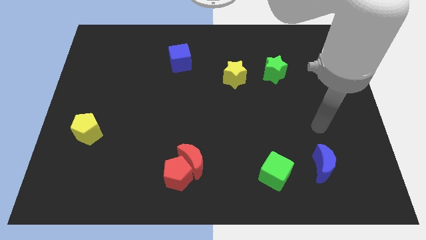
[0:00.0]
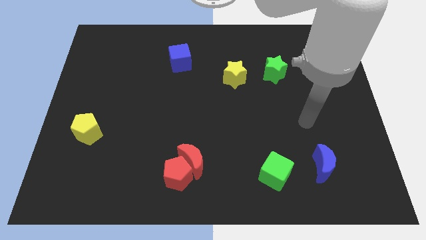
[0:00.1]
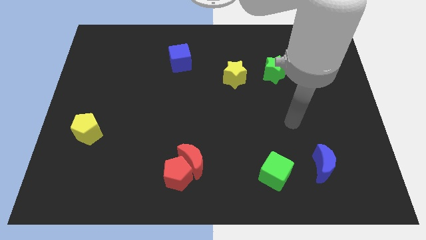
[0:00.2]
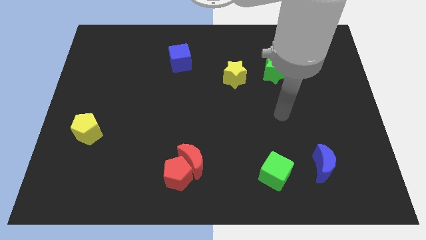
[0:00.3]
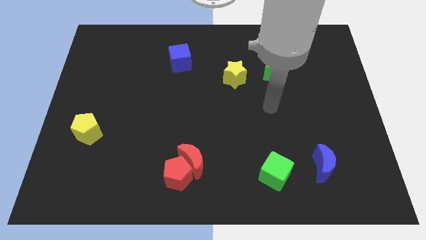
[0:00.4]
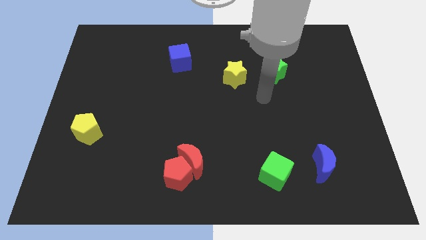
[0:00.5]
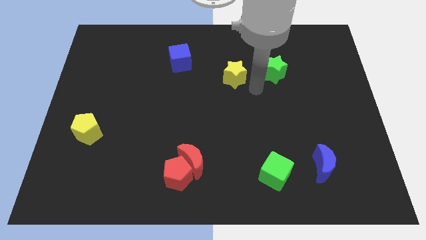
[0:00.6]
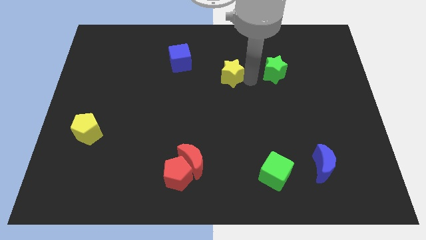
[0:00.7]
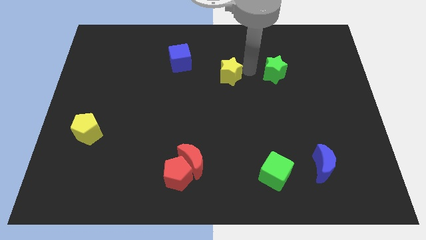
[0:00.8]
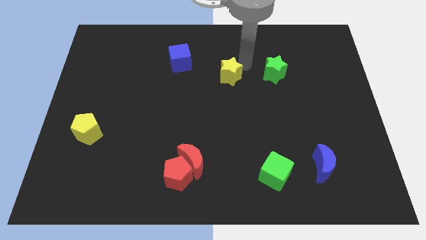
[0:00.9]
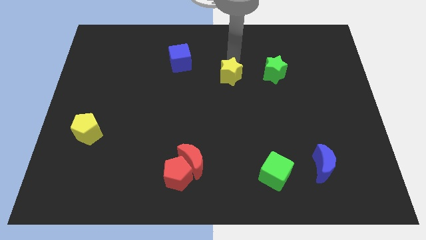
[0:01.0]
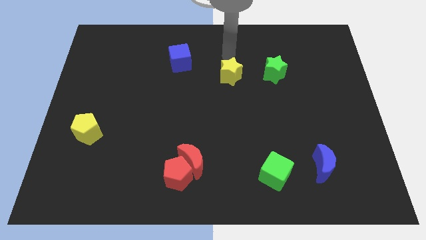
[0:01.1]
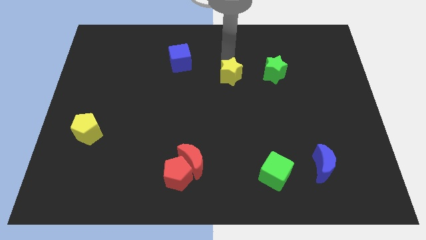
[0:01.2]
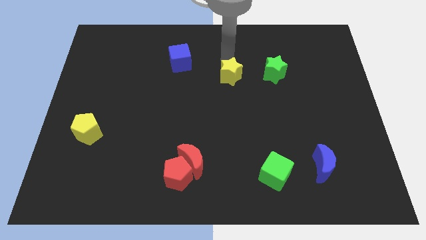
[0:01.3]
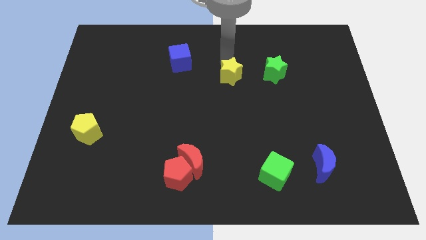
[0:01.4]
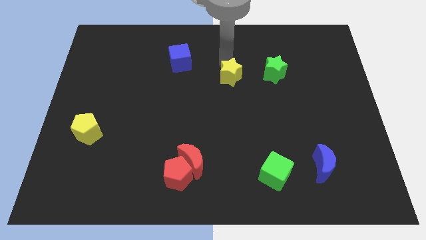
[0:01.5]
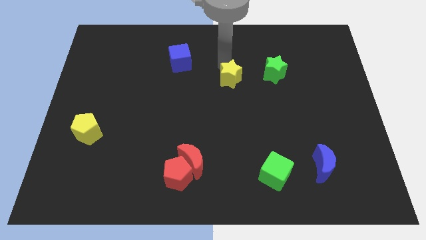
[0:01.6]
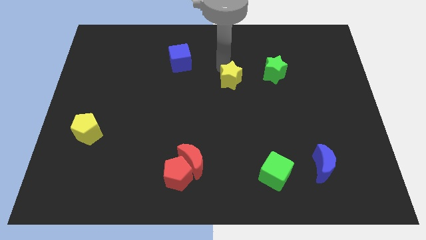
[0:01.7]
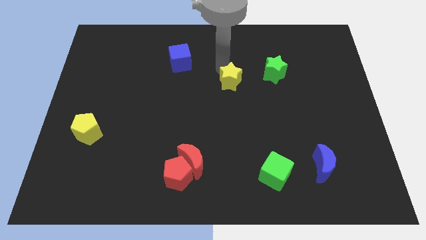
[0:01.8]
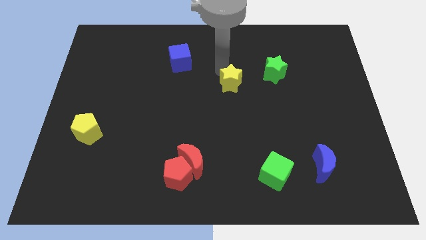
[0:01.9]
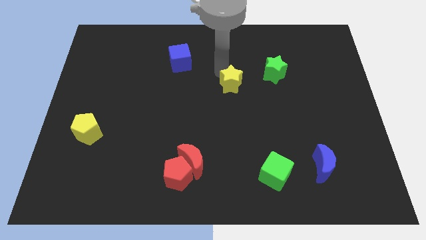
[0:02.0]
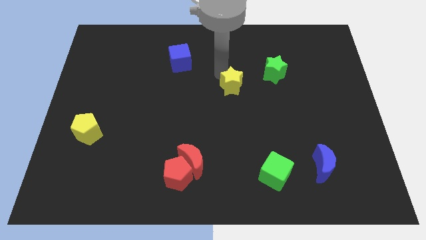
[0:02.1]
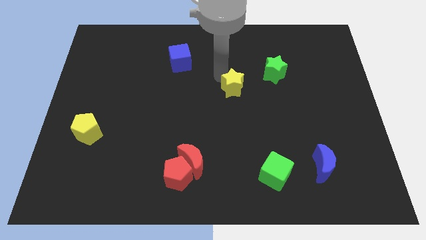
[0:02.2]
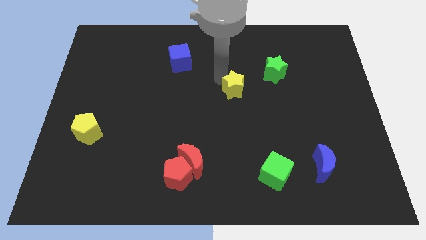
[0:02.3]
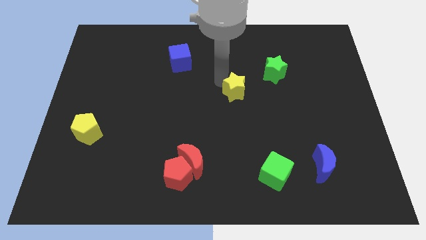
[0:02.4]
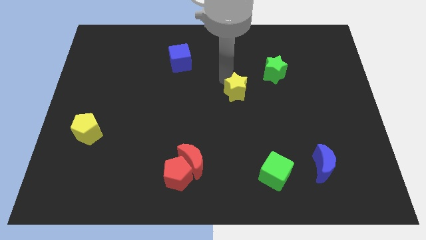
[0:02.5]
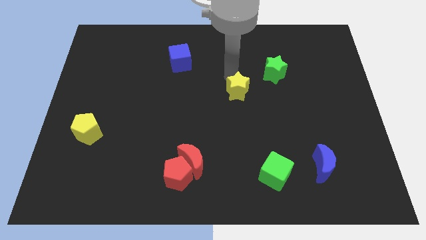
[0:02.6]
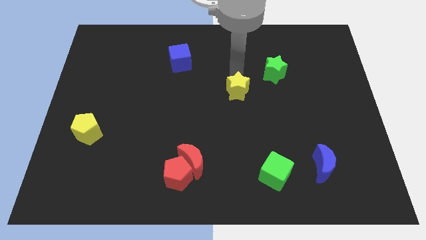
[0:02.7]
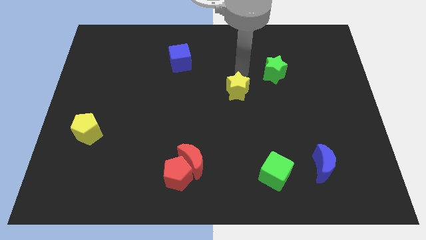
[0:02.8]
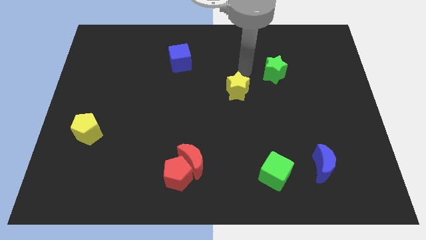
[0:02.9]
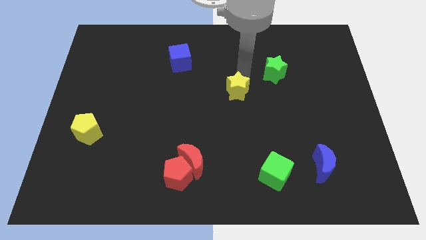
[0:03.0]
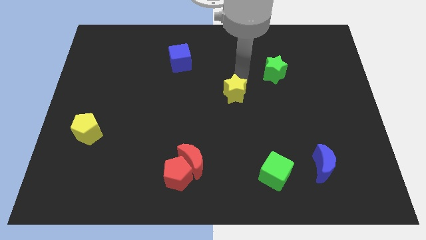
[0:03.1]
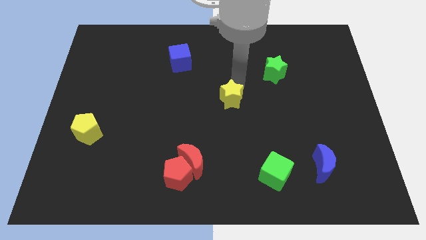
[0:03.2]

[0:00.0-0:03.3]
slide the yellow star a little bit down

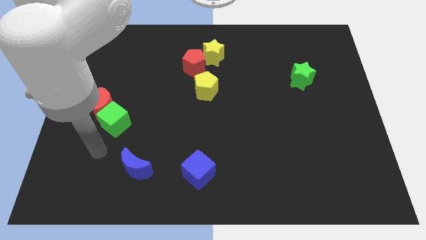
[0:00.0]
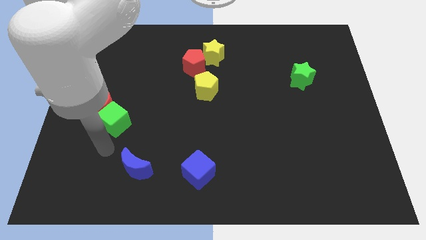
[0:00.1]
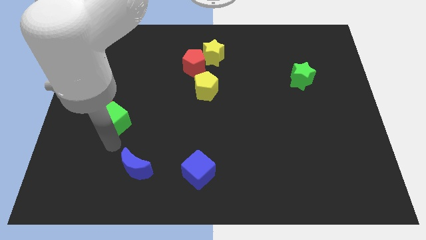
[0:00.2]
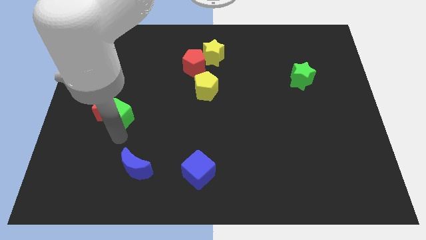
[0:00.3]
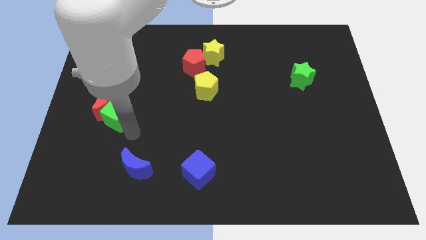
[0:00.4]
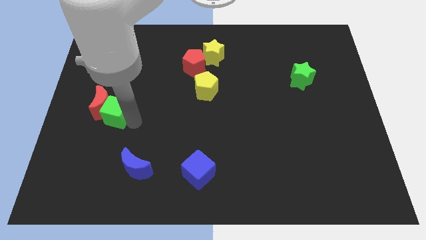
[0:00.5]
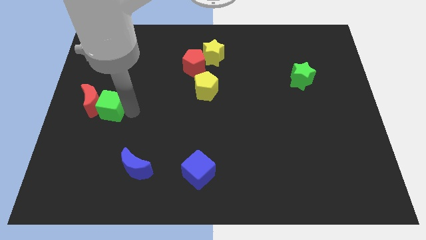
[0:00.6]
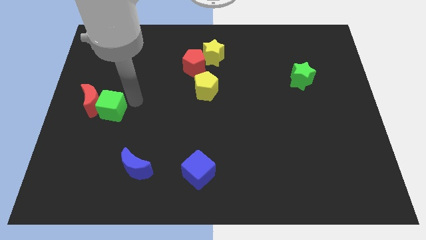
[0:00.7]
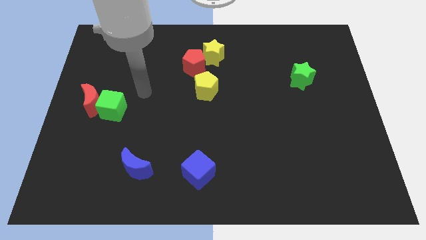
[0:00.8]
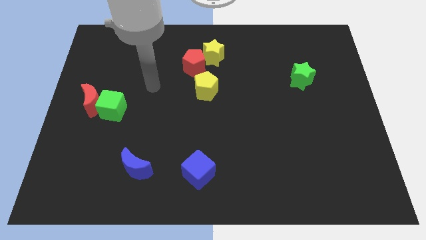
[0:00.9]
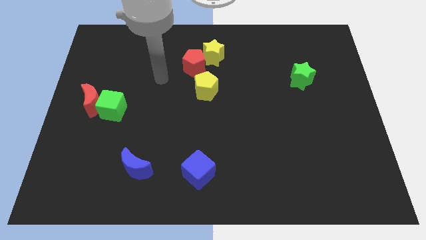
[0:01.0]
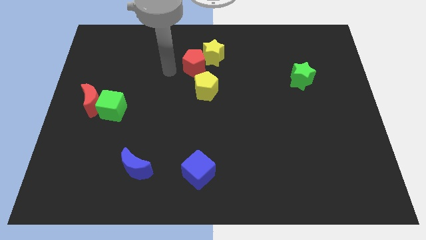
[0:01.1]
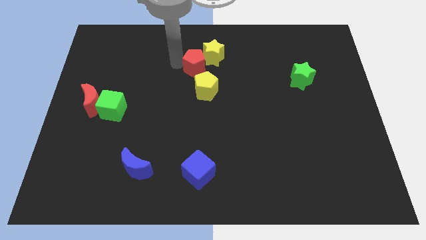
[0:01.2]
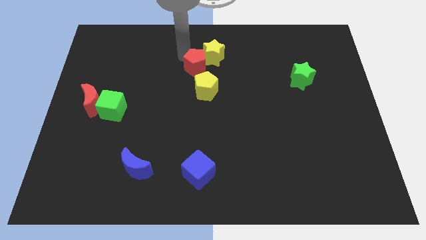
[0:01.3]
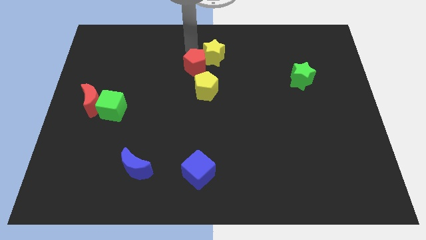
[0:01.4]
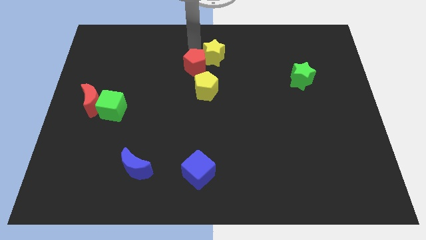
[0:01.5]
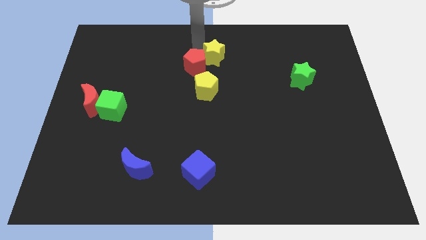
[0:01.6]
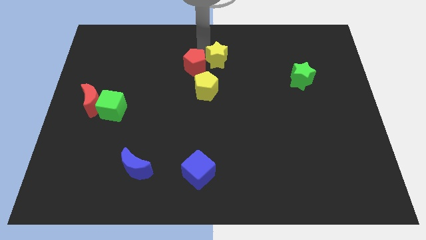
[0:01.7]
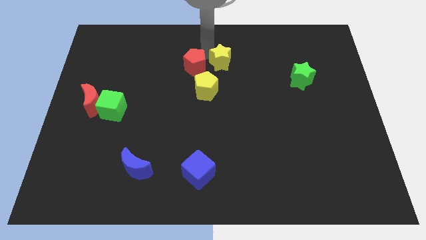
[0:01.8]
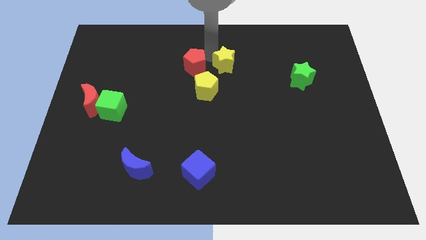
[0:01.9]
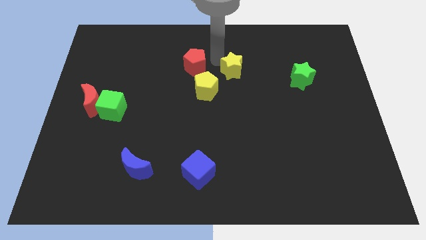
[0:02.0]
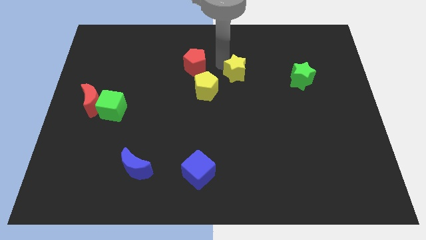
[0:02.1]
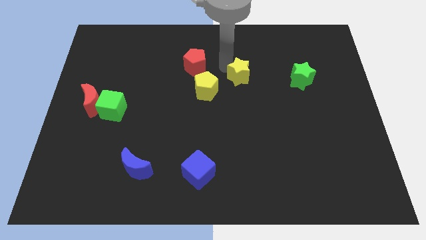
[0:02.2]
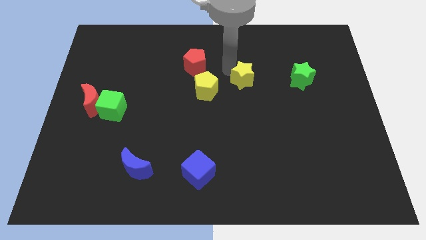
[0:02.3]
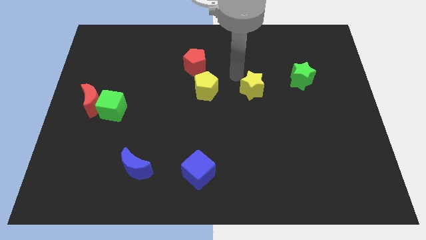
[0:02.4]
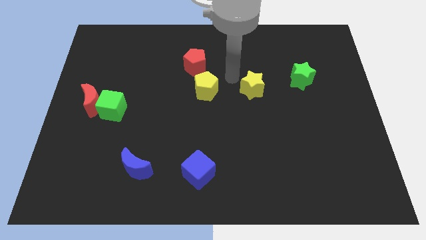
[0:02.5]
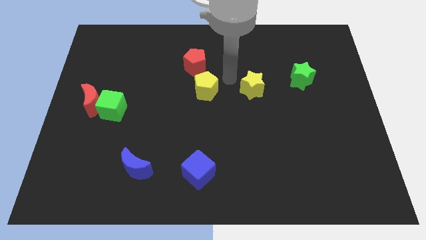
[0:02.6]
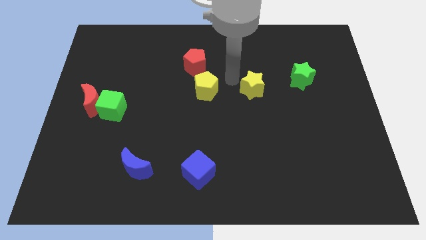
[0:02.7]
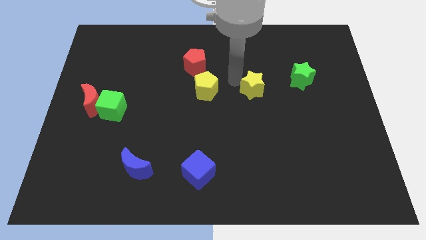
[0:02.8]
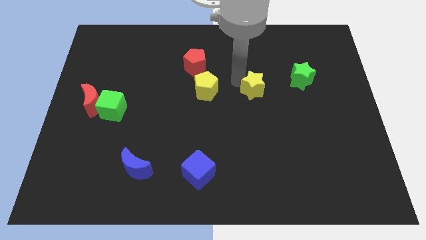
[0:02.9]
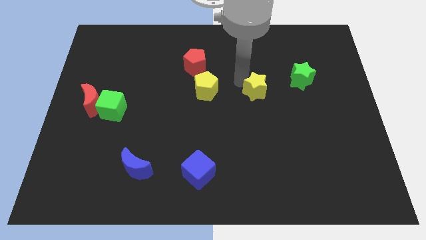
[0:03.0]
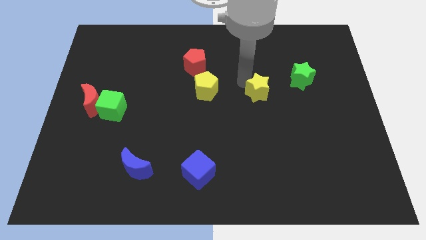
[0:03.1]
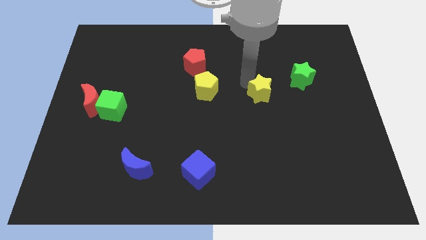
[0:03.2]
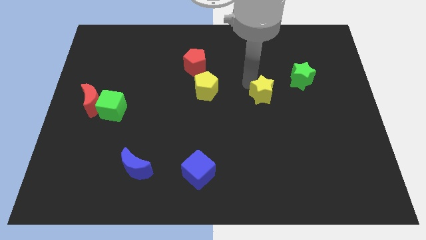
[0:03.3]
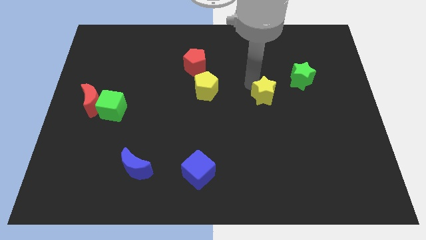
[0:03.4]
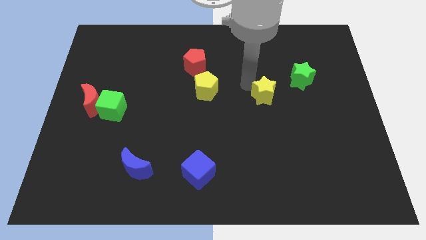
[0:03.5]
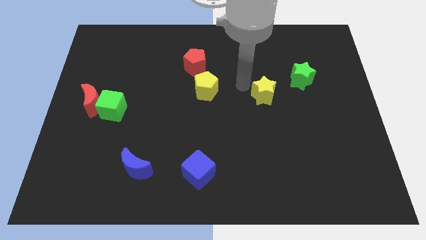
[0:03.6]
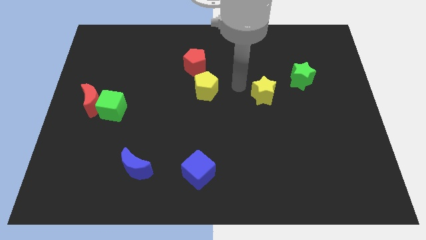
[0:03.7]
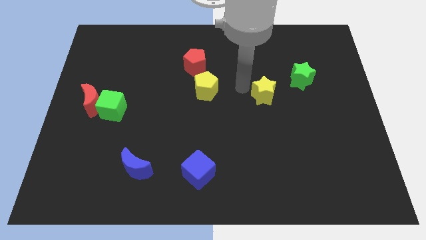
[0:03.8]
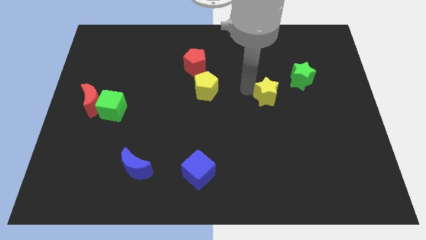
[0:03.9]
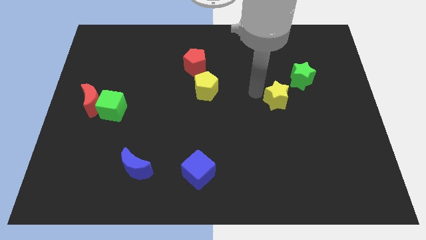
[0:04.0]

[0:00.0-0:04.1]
push the yellow star diagonally down and to the right

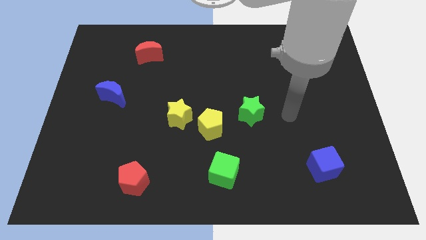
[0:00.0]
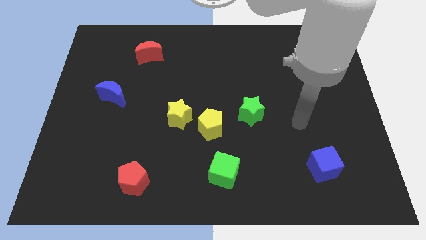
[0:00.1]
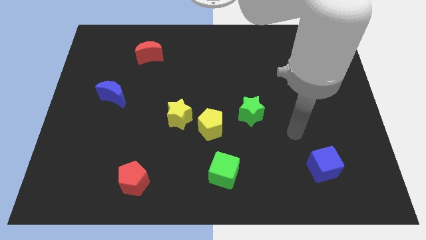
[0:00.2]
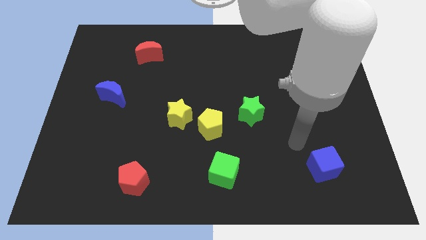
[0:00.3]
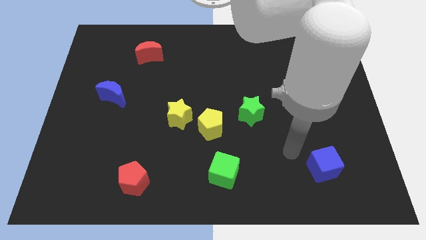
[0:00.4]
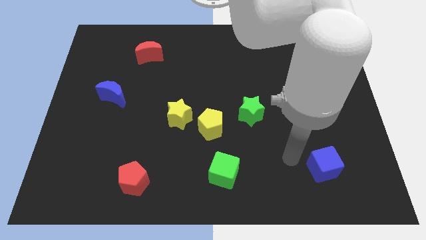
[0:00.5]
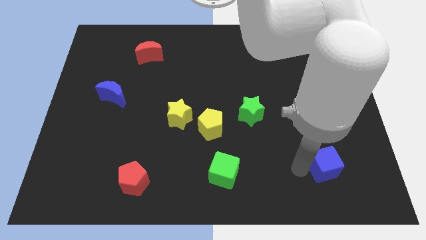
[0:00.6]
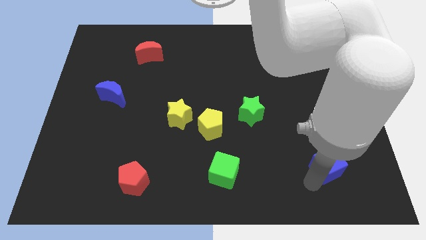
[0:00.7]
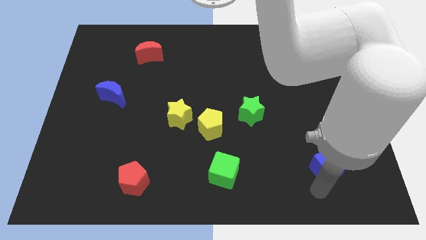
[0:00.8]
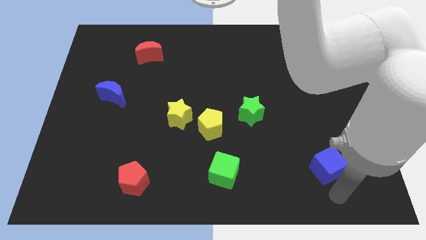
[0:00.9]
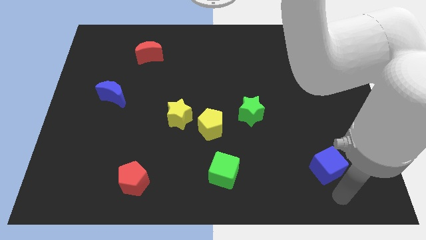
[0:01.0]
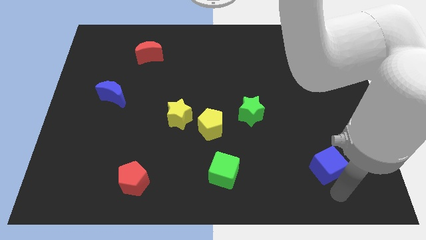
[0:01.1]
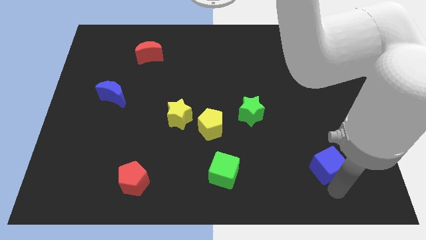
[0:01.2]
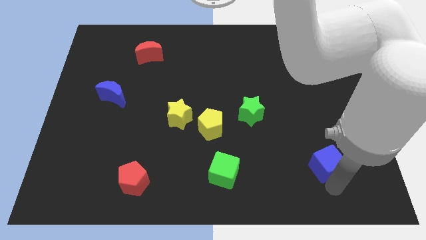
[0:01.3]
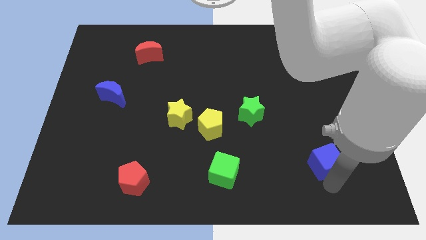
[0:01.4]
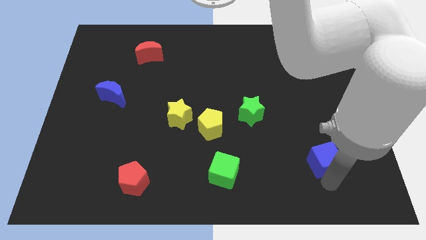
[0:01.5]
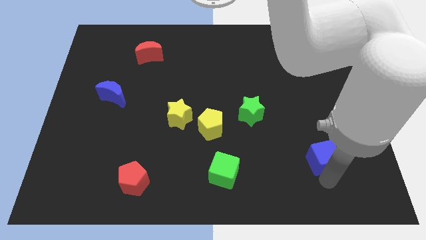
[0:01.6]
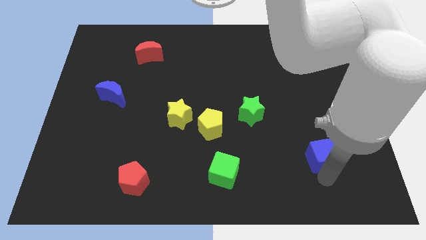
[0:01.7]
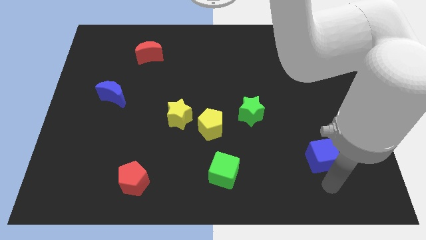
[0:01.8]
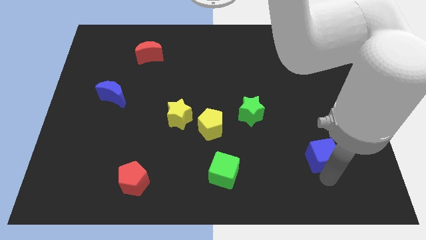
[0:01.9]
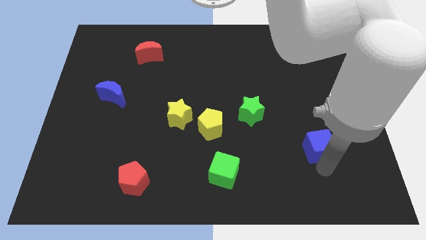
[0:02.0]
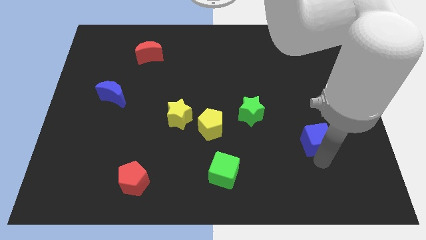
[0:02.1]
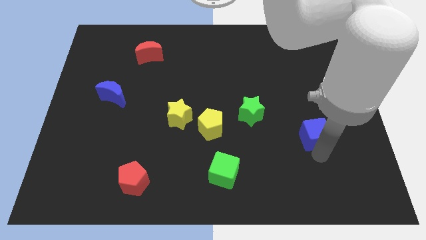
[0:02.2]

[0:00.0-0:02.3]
slightly slide the blue cube upwards
